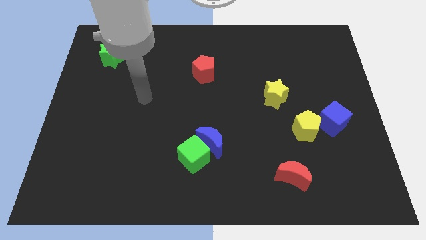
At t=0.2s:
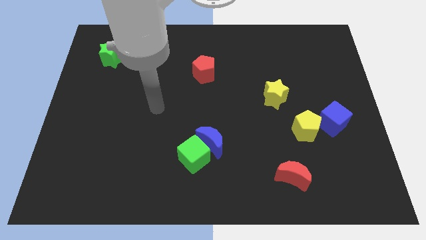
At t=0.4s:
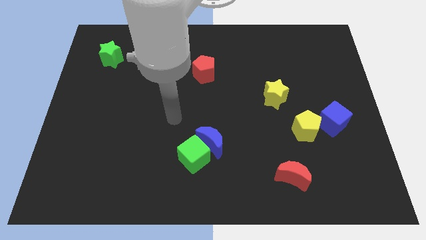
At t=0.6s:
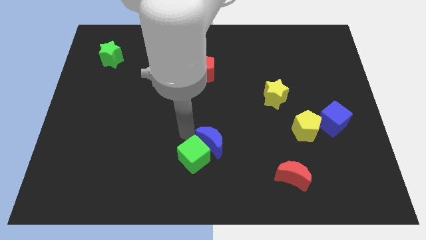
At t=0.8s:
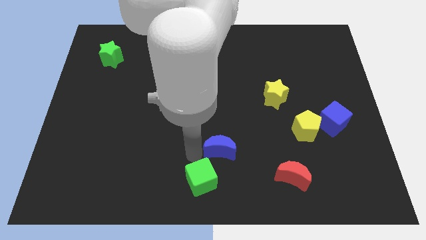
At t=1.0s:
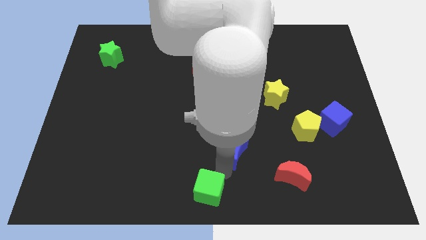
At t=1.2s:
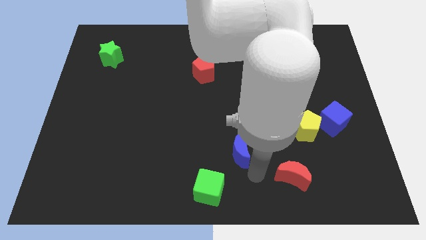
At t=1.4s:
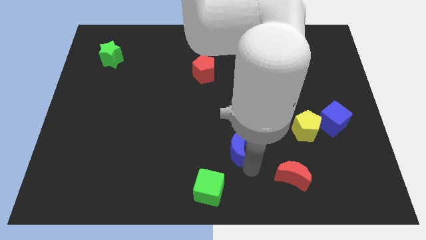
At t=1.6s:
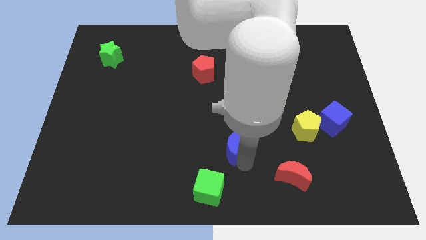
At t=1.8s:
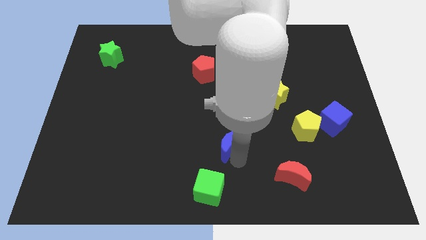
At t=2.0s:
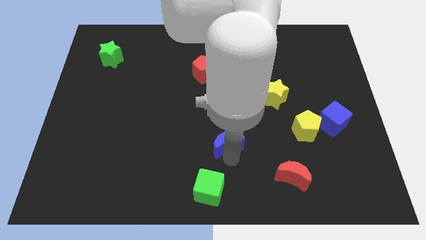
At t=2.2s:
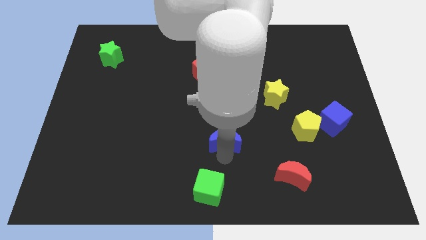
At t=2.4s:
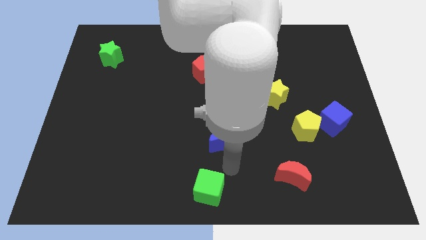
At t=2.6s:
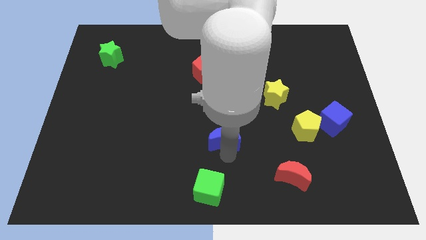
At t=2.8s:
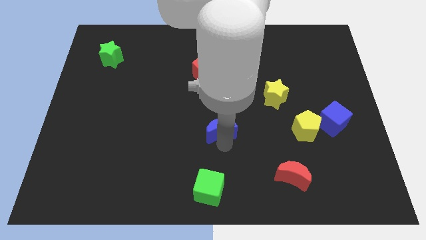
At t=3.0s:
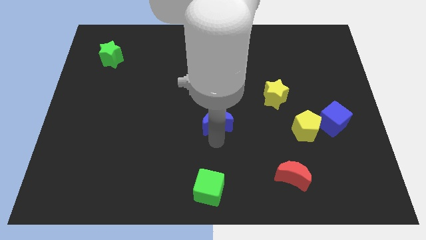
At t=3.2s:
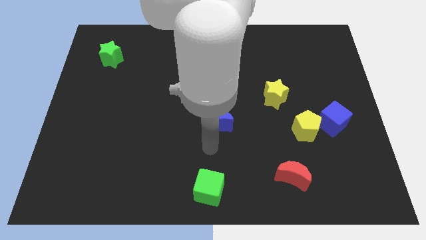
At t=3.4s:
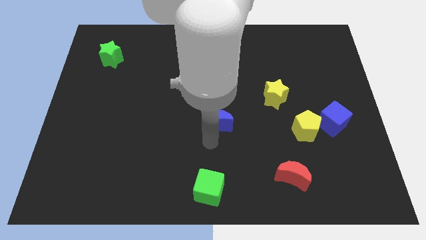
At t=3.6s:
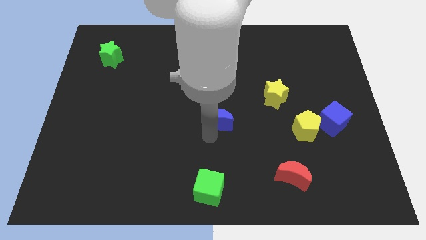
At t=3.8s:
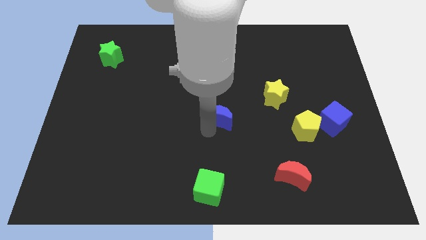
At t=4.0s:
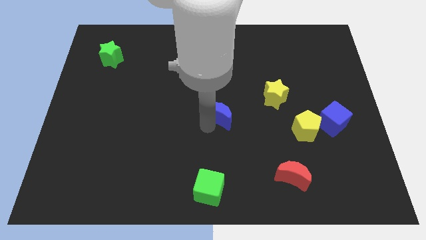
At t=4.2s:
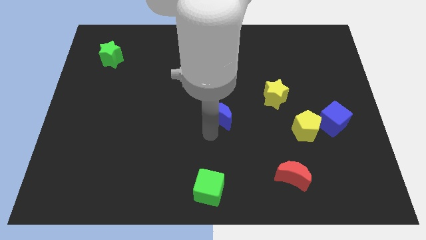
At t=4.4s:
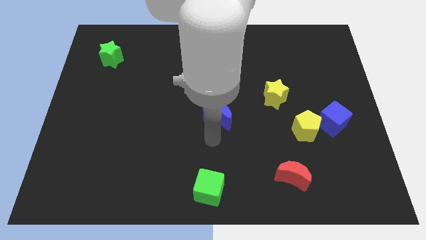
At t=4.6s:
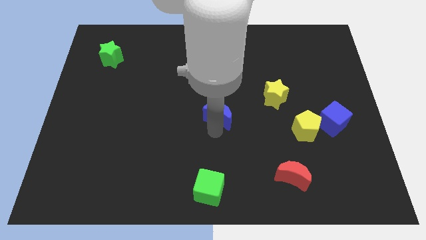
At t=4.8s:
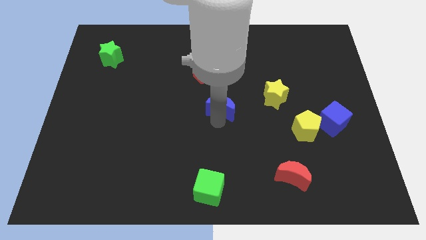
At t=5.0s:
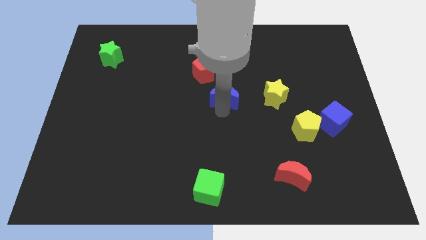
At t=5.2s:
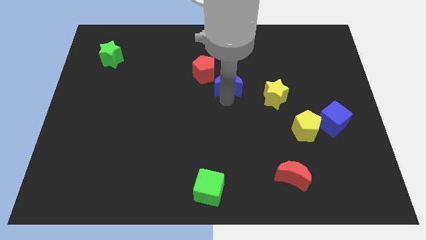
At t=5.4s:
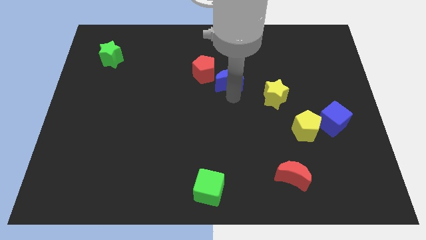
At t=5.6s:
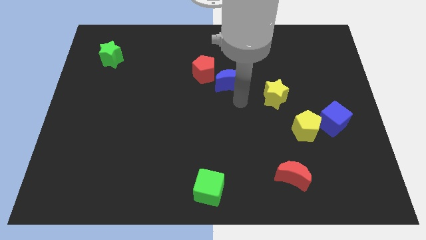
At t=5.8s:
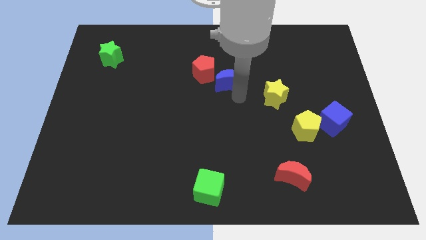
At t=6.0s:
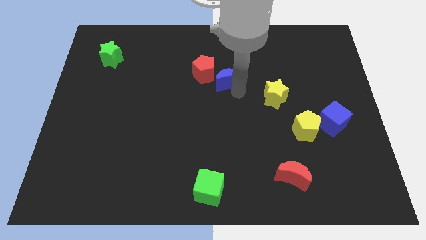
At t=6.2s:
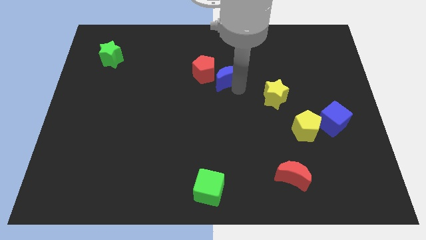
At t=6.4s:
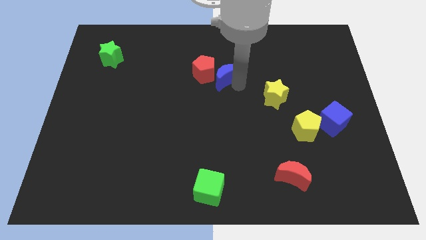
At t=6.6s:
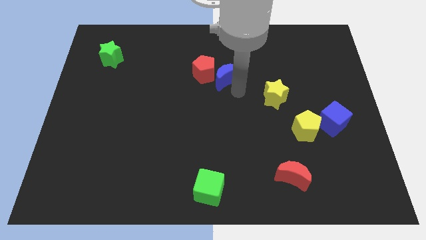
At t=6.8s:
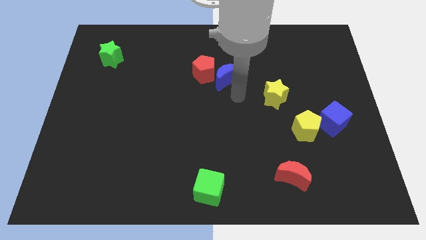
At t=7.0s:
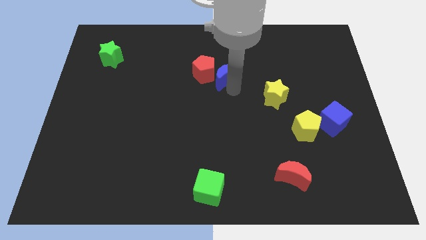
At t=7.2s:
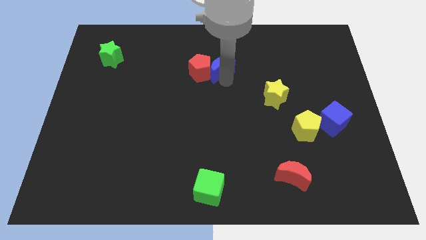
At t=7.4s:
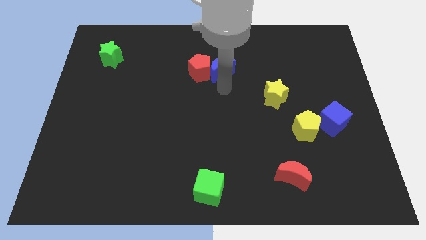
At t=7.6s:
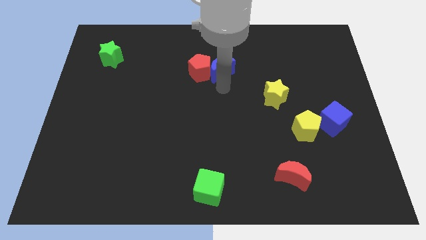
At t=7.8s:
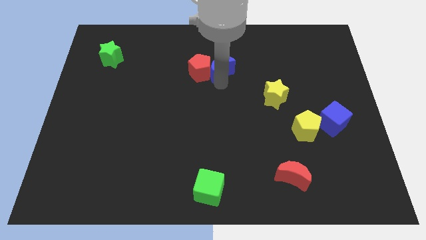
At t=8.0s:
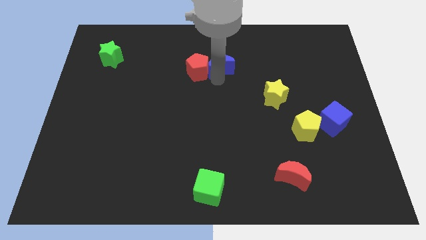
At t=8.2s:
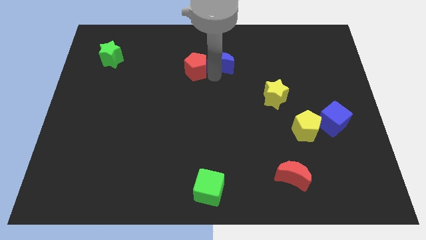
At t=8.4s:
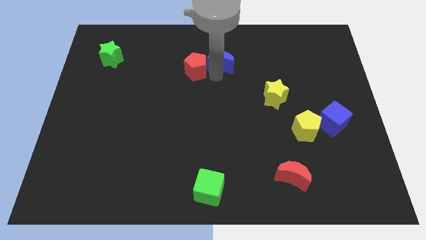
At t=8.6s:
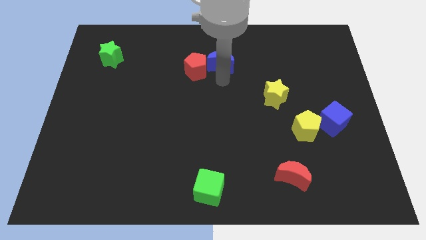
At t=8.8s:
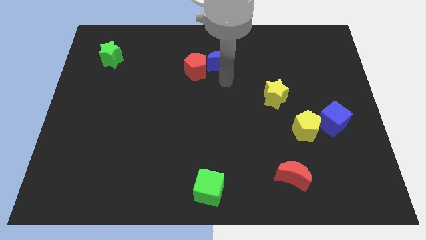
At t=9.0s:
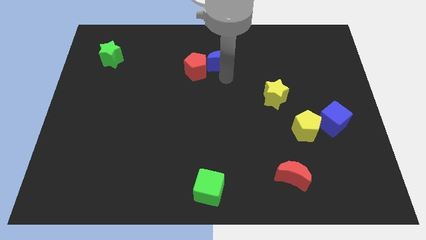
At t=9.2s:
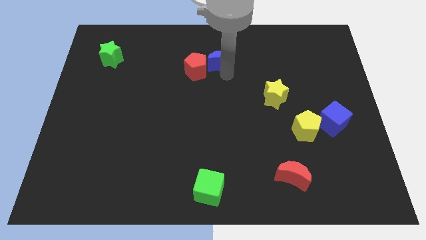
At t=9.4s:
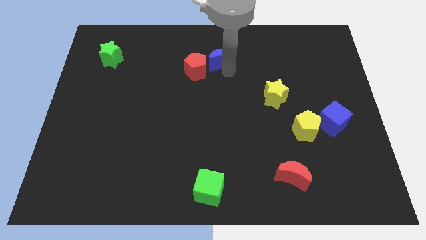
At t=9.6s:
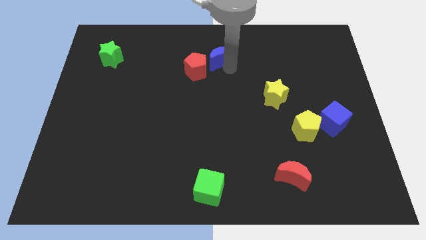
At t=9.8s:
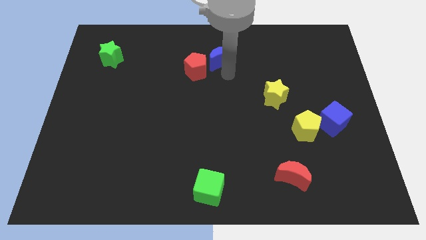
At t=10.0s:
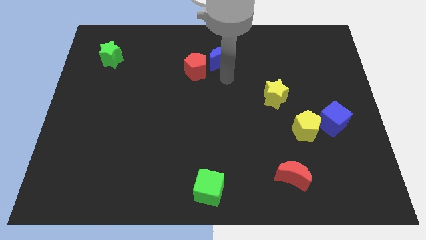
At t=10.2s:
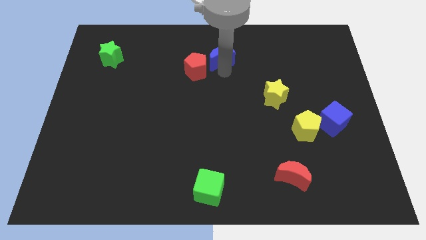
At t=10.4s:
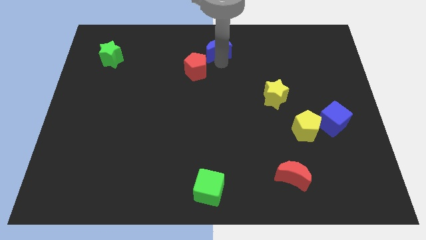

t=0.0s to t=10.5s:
move the blue moon to the top

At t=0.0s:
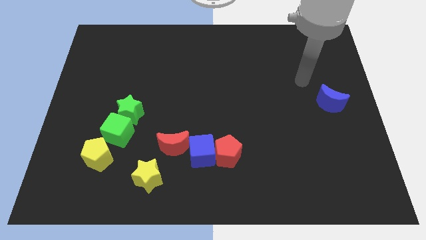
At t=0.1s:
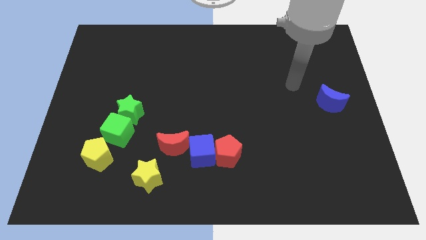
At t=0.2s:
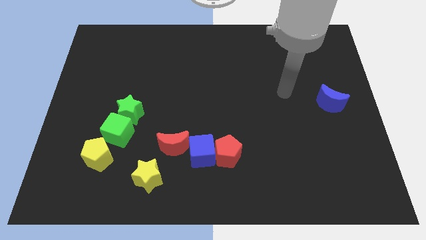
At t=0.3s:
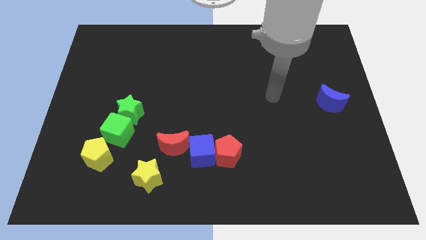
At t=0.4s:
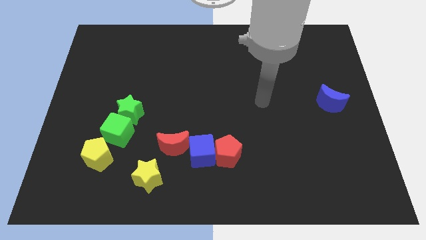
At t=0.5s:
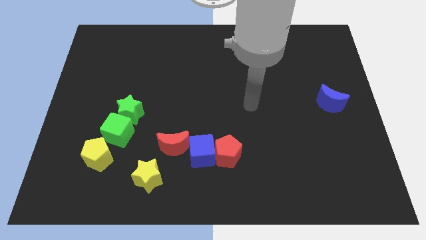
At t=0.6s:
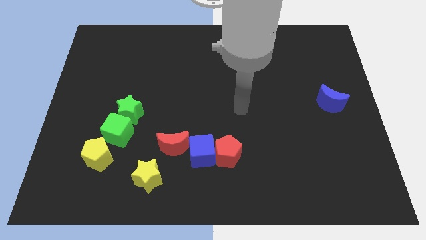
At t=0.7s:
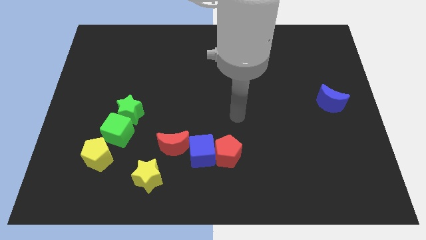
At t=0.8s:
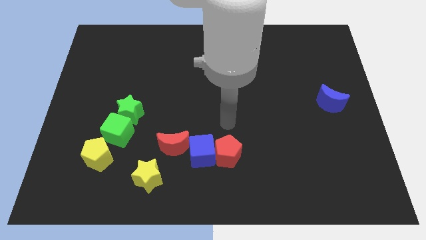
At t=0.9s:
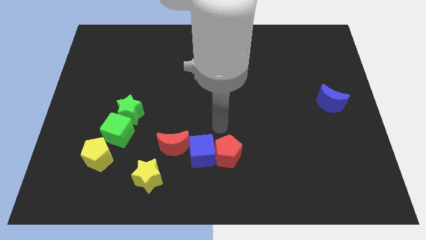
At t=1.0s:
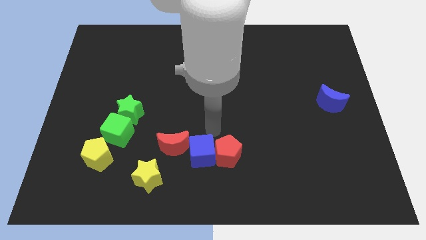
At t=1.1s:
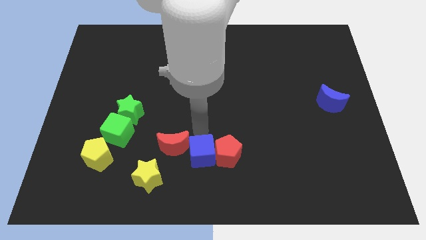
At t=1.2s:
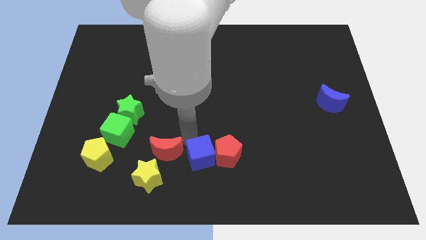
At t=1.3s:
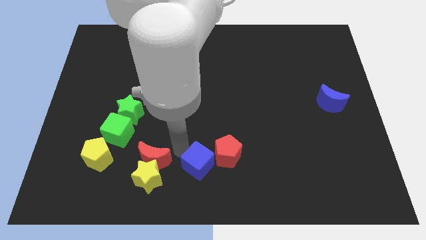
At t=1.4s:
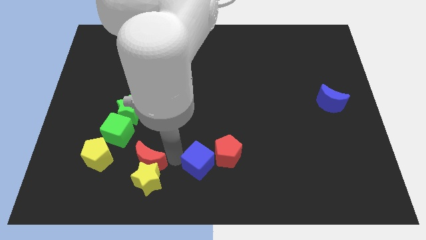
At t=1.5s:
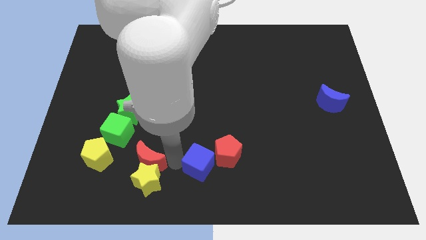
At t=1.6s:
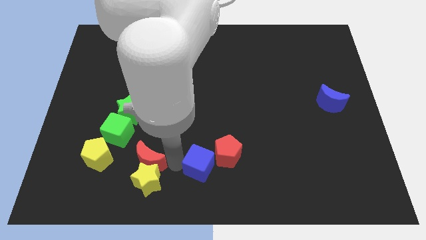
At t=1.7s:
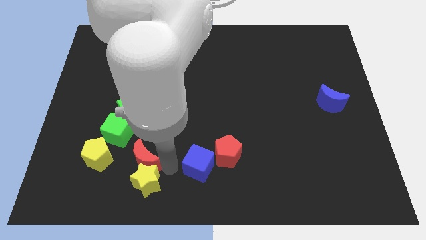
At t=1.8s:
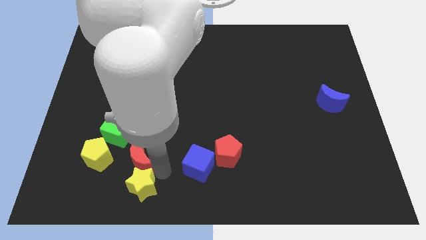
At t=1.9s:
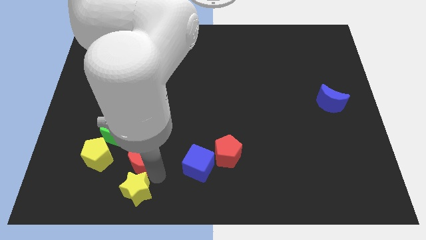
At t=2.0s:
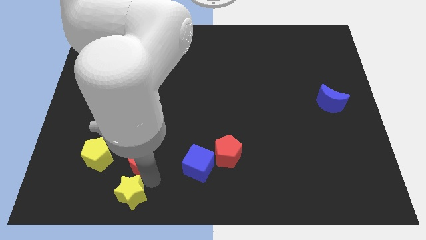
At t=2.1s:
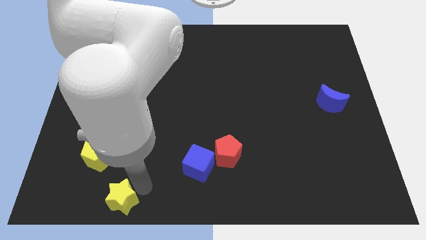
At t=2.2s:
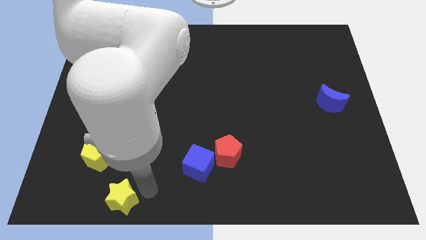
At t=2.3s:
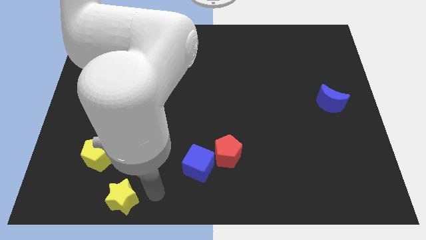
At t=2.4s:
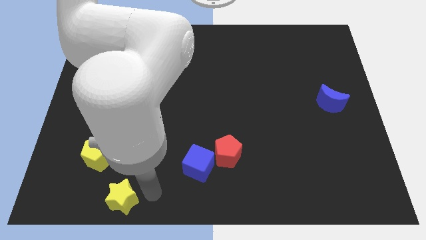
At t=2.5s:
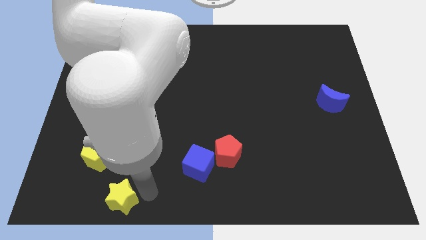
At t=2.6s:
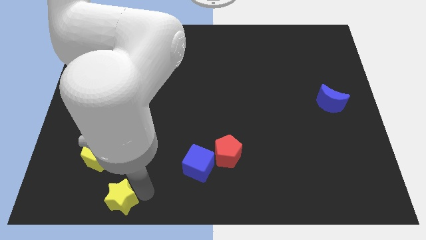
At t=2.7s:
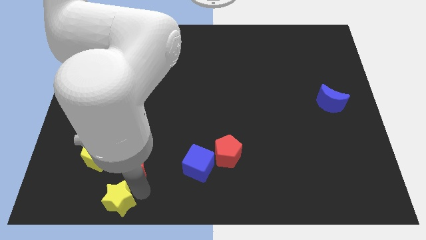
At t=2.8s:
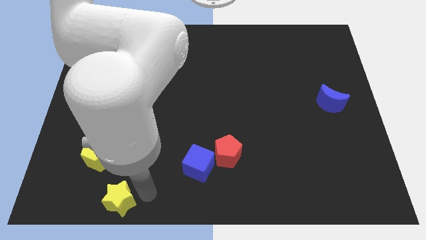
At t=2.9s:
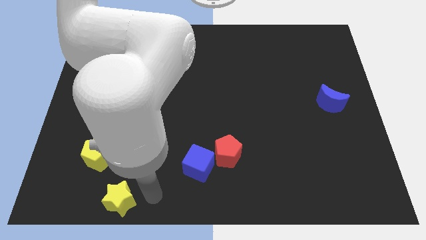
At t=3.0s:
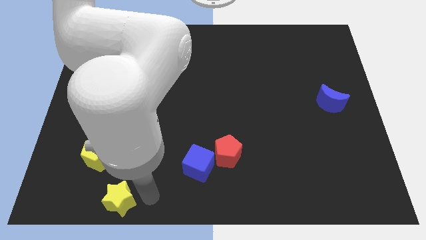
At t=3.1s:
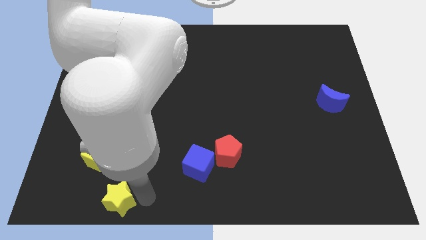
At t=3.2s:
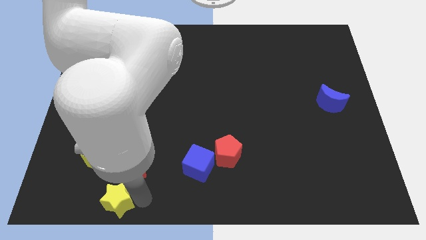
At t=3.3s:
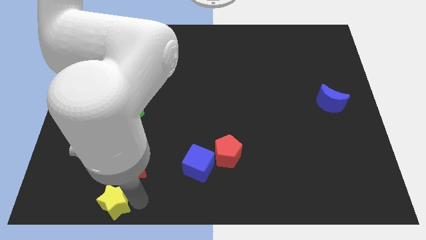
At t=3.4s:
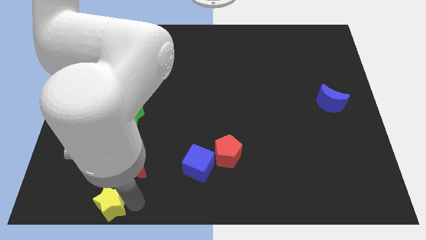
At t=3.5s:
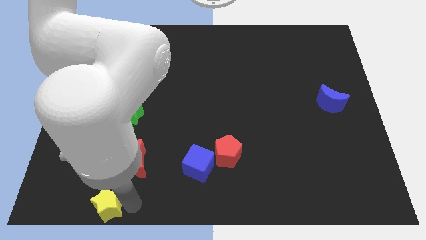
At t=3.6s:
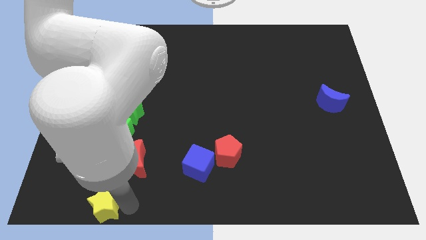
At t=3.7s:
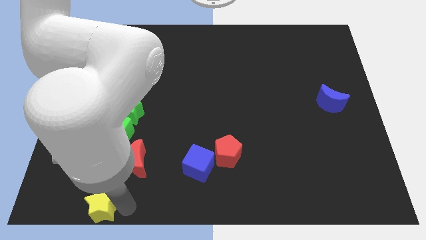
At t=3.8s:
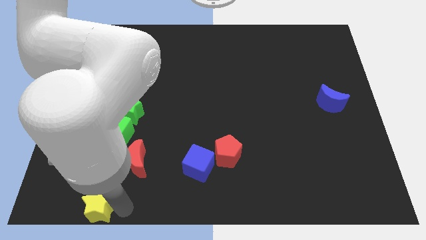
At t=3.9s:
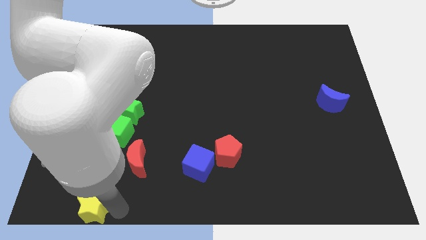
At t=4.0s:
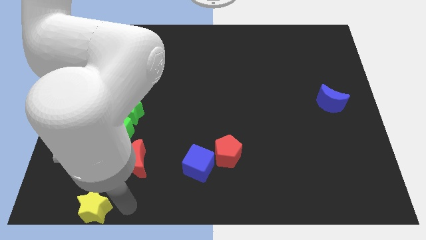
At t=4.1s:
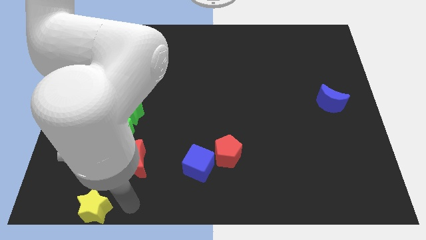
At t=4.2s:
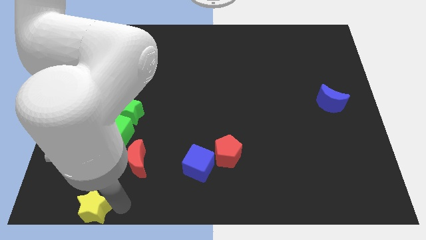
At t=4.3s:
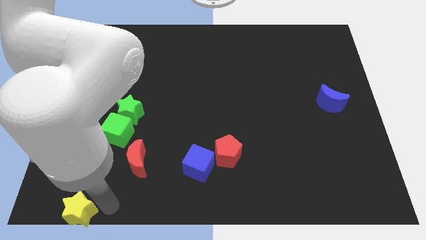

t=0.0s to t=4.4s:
slide the yellow star to the bottom left
